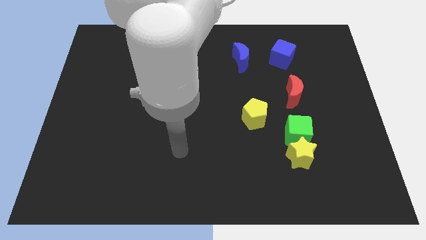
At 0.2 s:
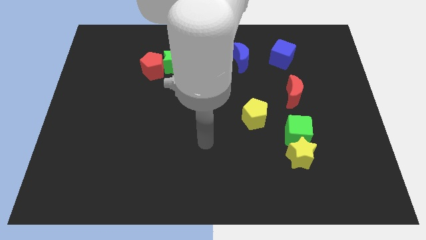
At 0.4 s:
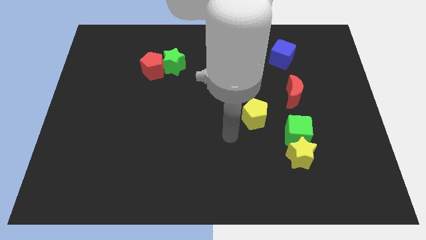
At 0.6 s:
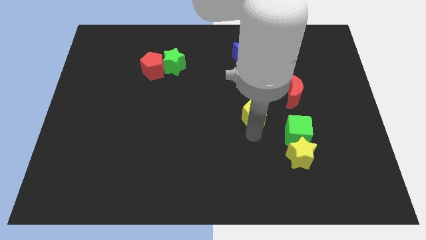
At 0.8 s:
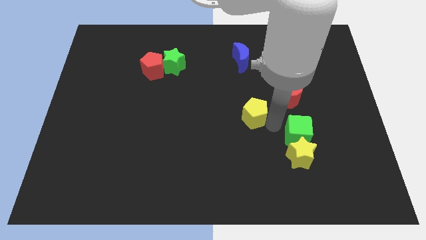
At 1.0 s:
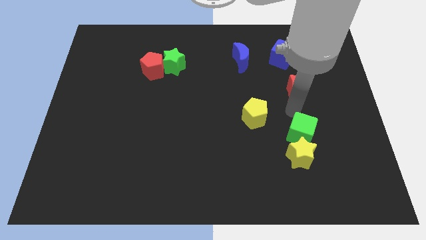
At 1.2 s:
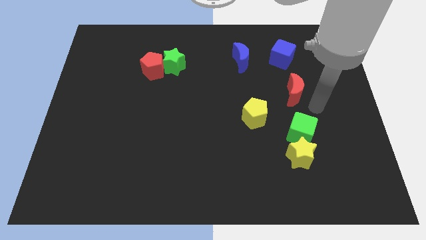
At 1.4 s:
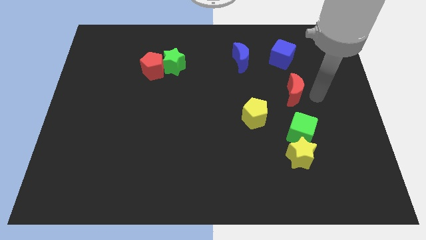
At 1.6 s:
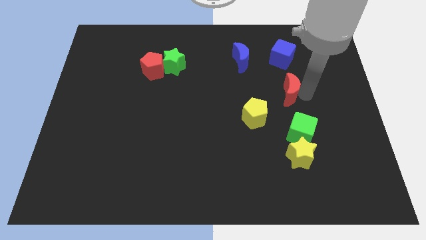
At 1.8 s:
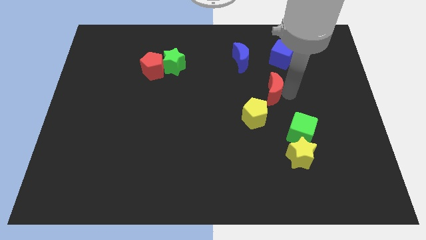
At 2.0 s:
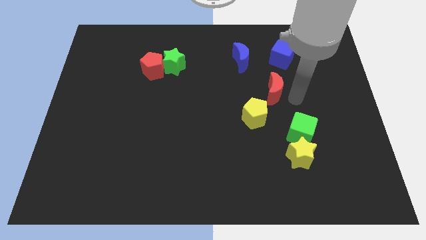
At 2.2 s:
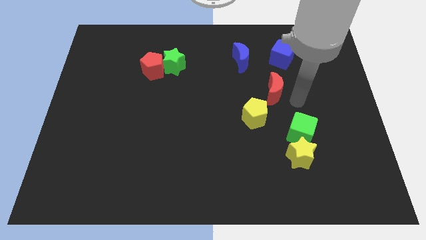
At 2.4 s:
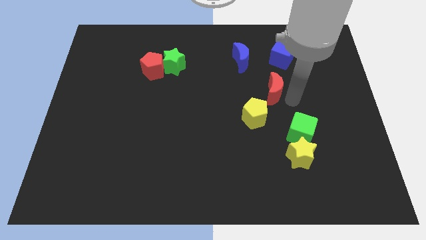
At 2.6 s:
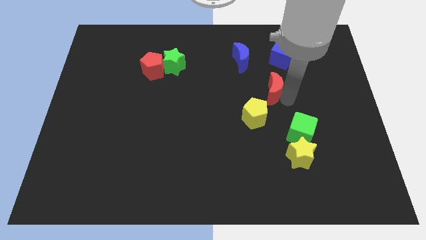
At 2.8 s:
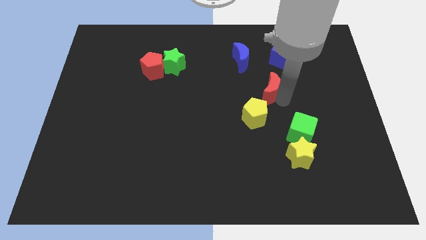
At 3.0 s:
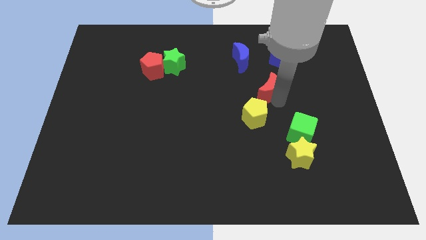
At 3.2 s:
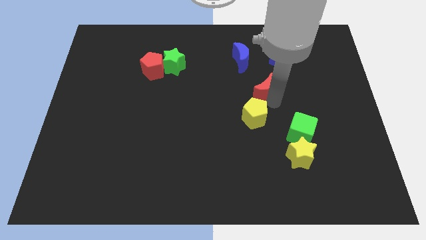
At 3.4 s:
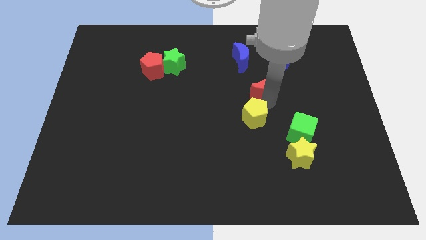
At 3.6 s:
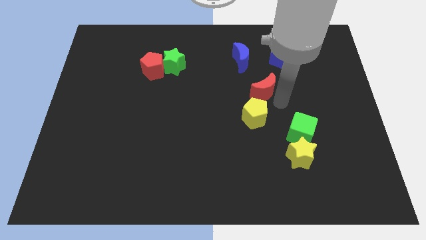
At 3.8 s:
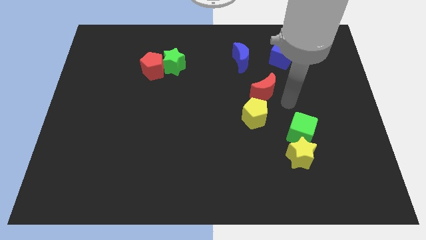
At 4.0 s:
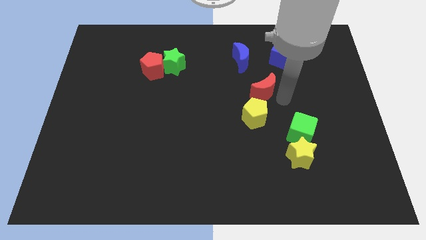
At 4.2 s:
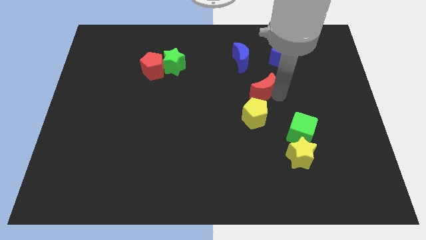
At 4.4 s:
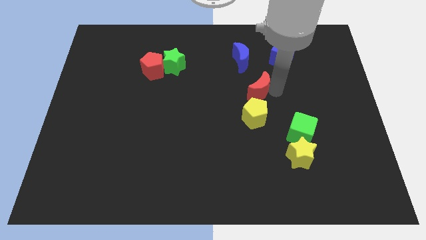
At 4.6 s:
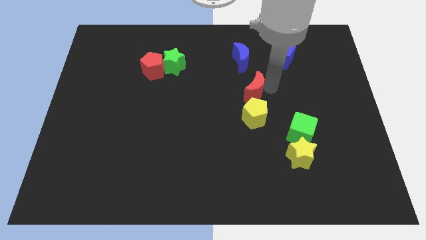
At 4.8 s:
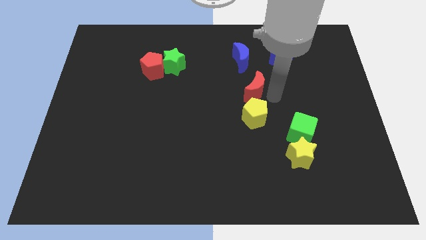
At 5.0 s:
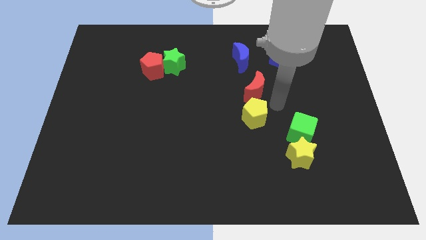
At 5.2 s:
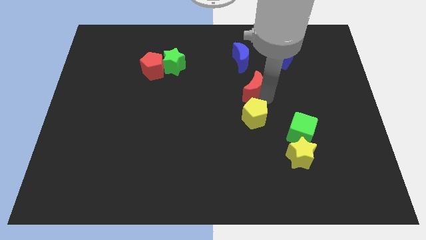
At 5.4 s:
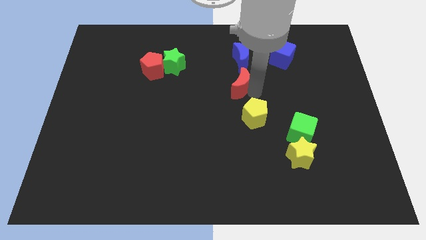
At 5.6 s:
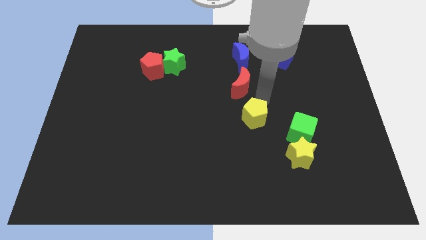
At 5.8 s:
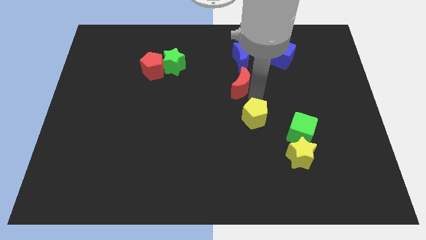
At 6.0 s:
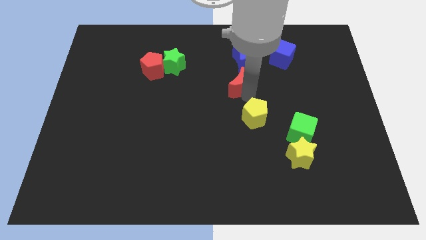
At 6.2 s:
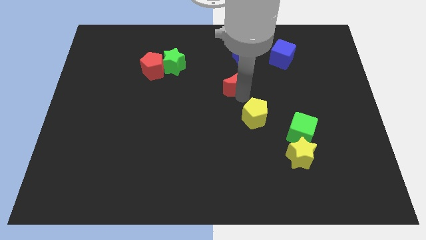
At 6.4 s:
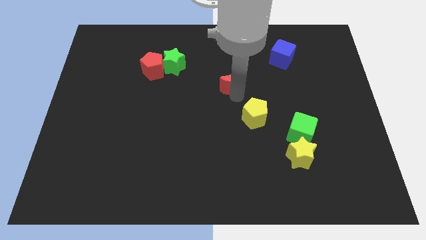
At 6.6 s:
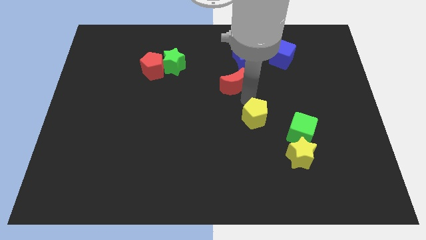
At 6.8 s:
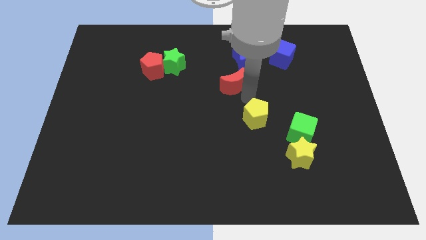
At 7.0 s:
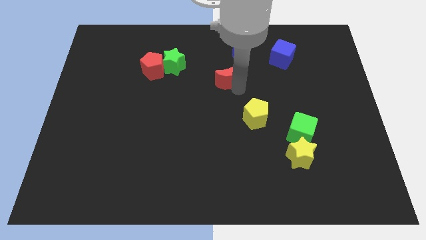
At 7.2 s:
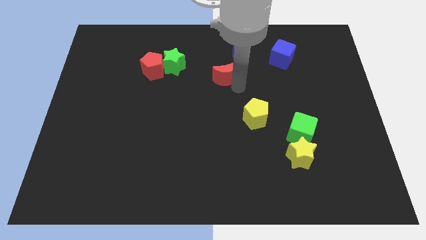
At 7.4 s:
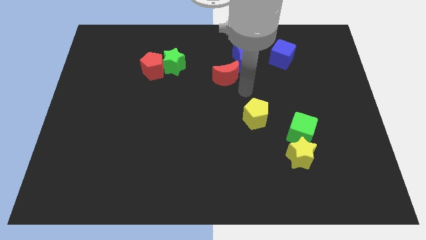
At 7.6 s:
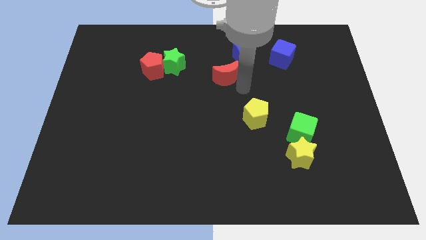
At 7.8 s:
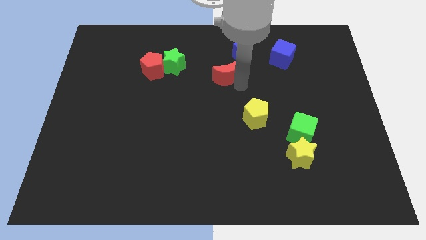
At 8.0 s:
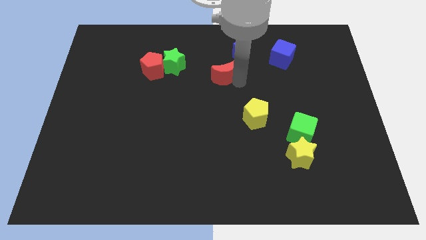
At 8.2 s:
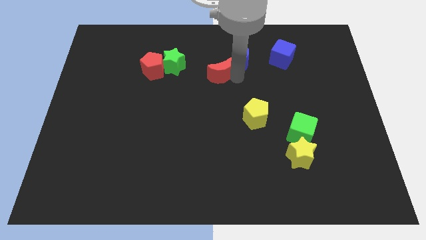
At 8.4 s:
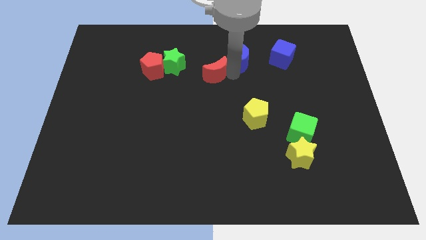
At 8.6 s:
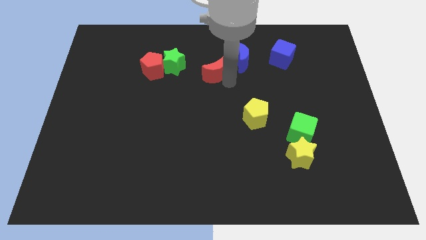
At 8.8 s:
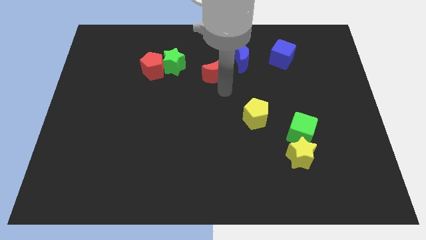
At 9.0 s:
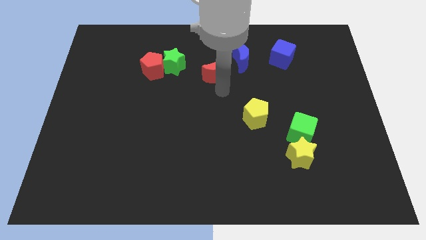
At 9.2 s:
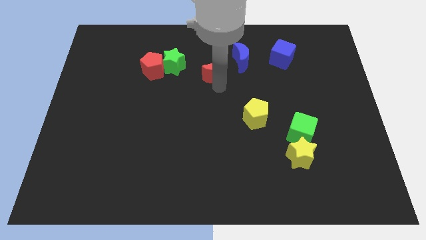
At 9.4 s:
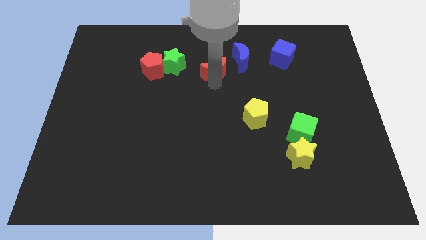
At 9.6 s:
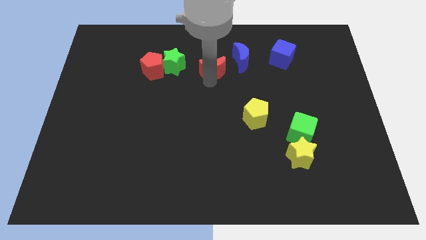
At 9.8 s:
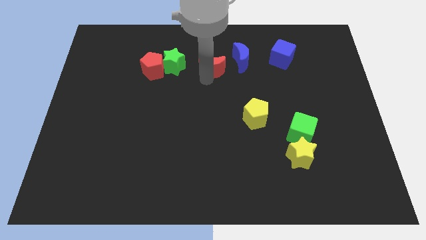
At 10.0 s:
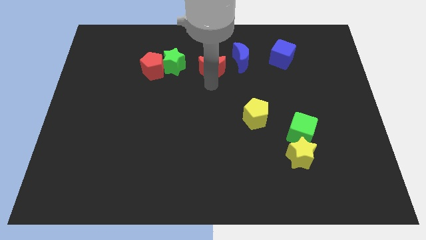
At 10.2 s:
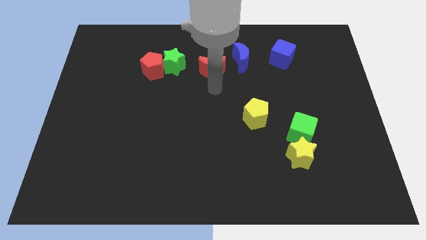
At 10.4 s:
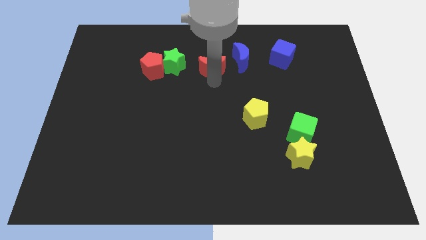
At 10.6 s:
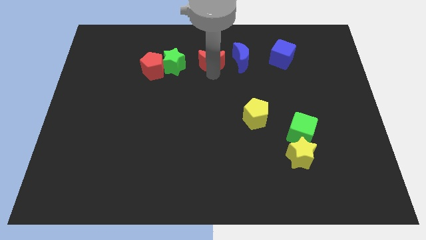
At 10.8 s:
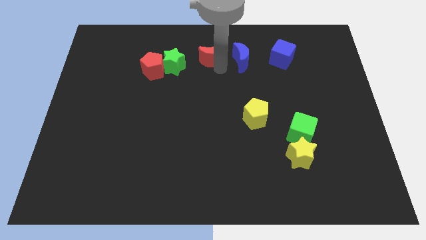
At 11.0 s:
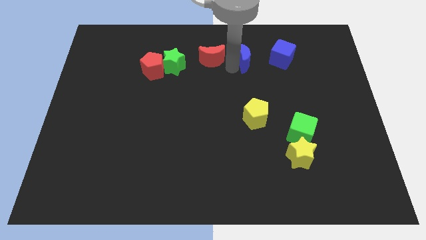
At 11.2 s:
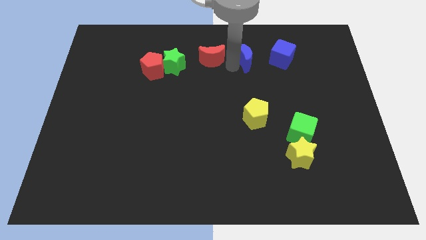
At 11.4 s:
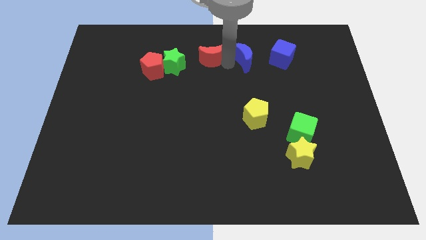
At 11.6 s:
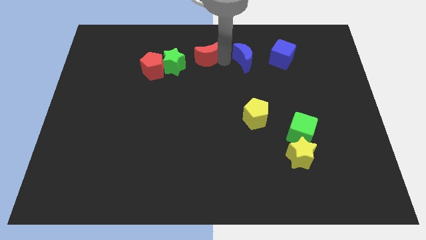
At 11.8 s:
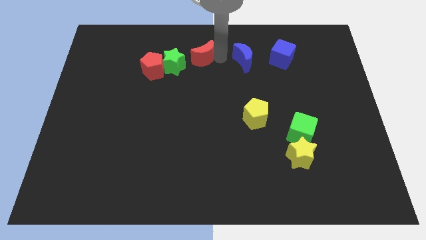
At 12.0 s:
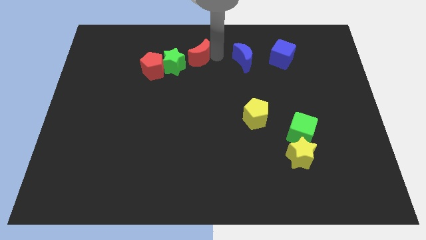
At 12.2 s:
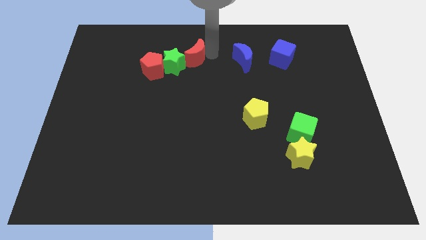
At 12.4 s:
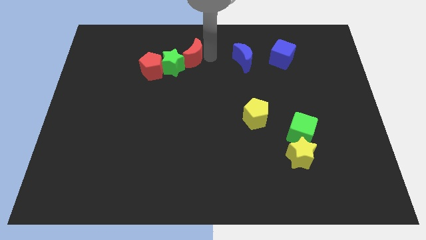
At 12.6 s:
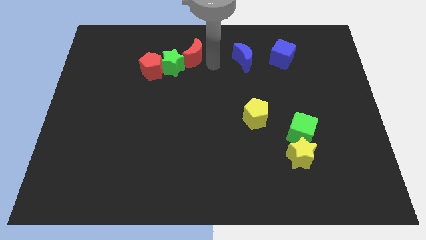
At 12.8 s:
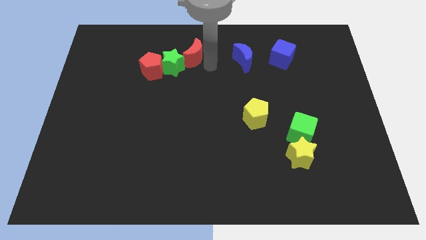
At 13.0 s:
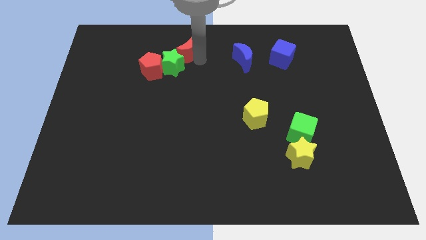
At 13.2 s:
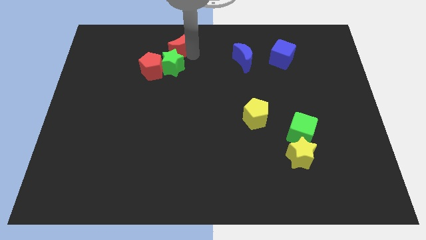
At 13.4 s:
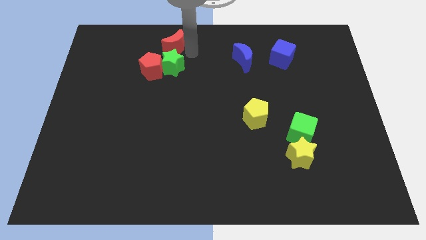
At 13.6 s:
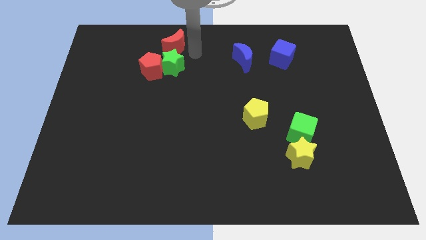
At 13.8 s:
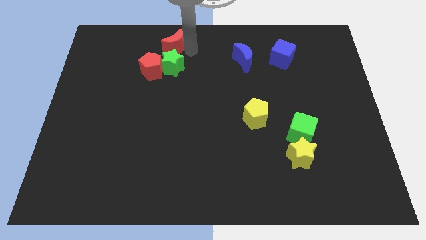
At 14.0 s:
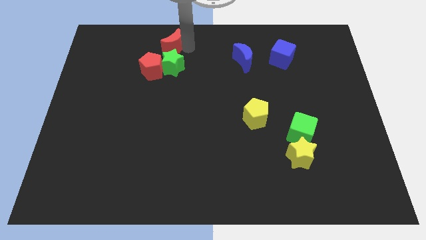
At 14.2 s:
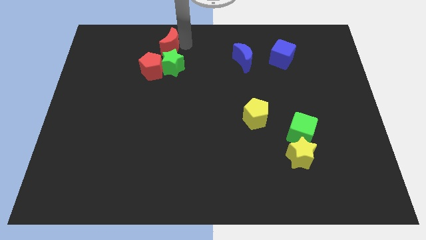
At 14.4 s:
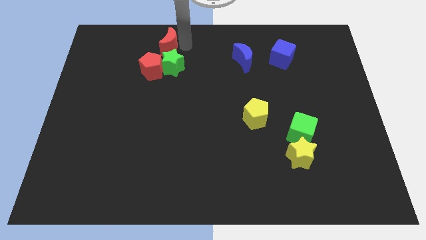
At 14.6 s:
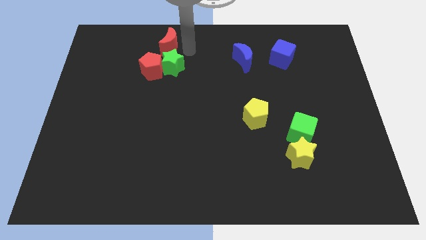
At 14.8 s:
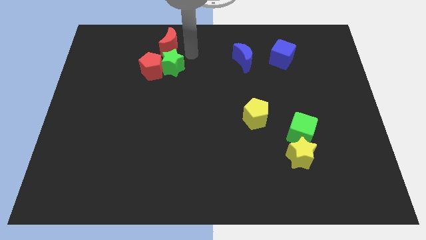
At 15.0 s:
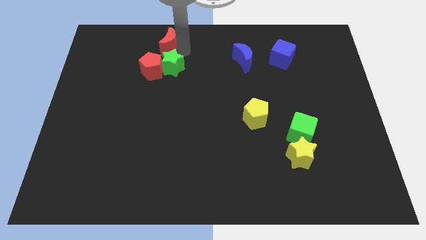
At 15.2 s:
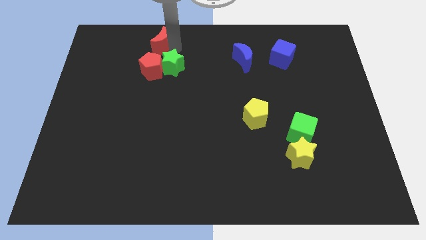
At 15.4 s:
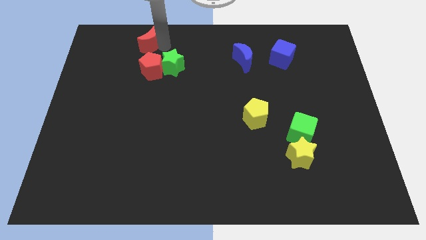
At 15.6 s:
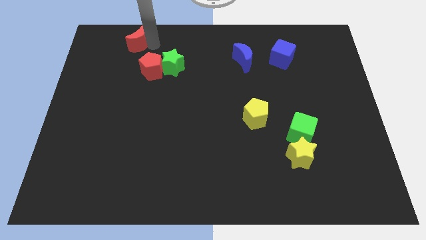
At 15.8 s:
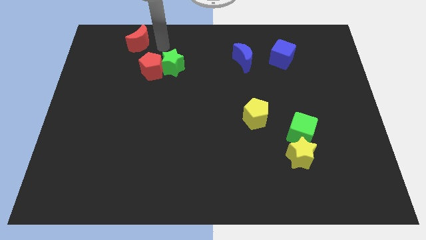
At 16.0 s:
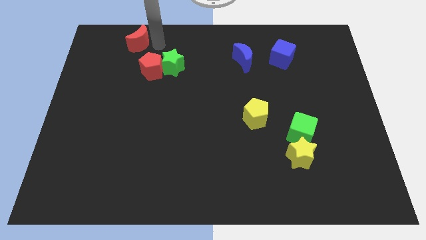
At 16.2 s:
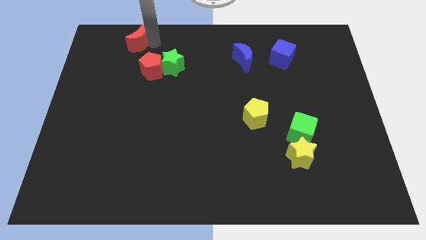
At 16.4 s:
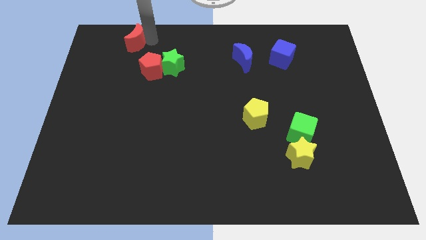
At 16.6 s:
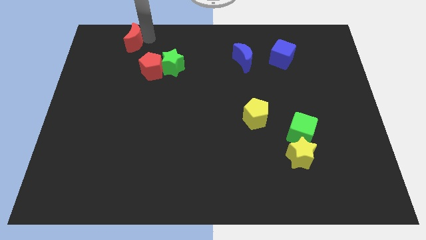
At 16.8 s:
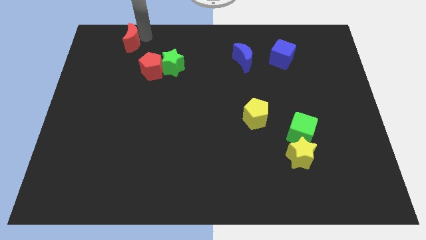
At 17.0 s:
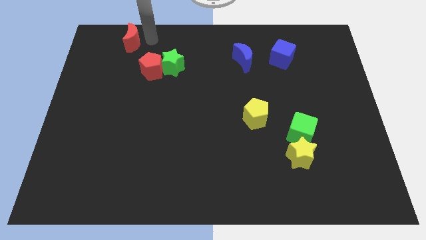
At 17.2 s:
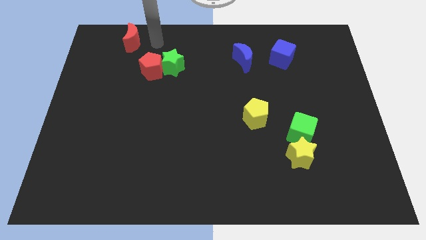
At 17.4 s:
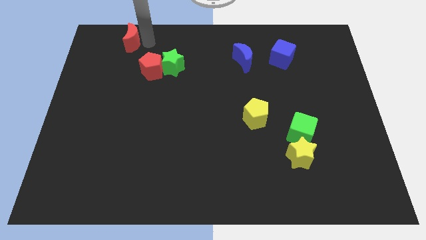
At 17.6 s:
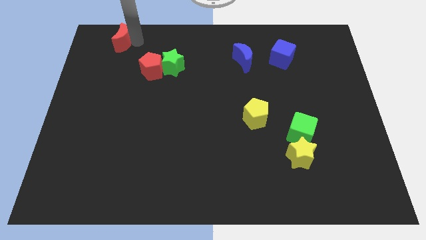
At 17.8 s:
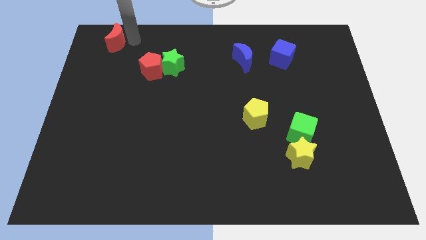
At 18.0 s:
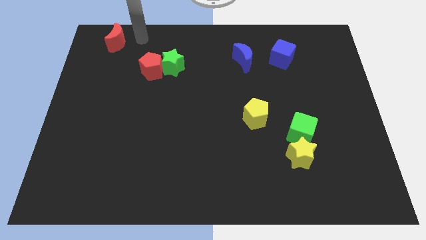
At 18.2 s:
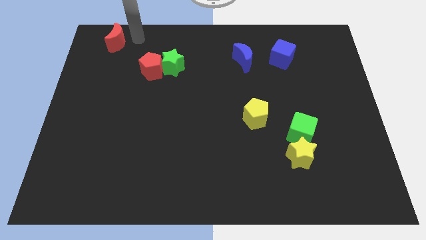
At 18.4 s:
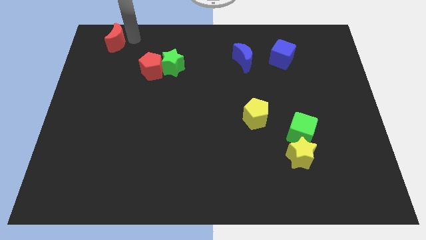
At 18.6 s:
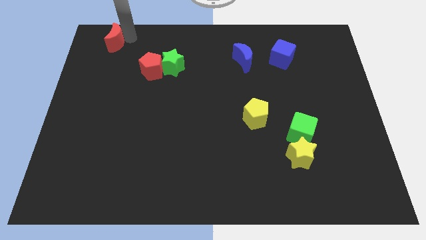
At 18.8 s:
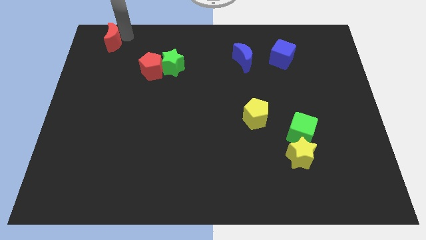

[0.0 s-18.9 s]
slide the red moon to the upper left corner
